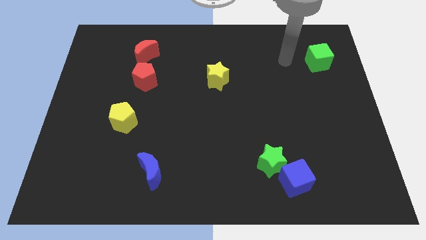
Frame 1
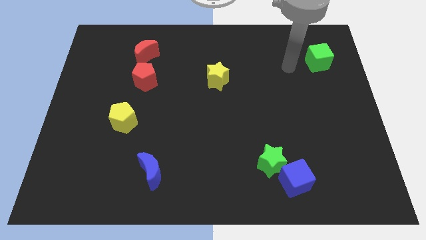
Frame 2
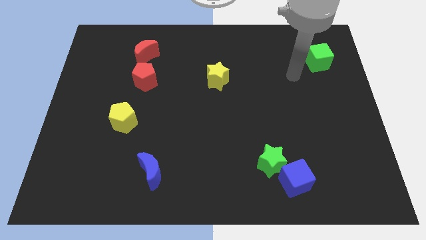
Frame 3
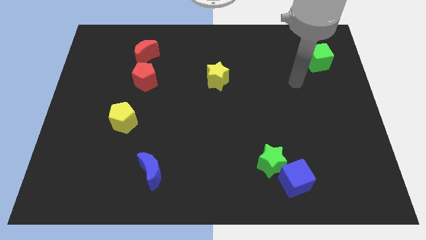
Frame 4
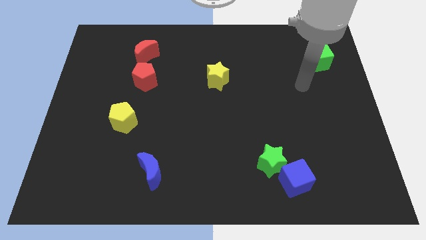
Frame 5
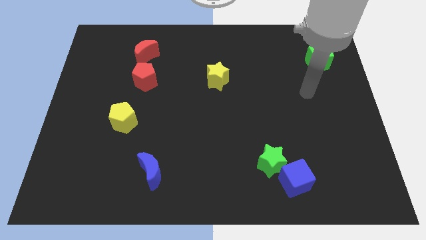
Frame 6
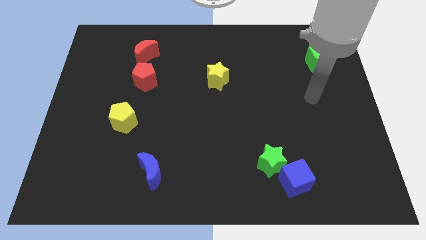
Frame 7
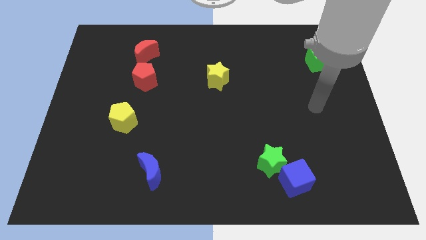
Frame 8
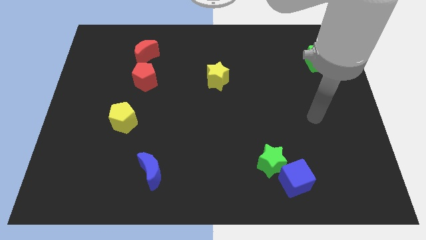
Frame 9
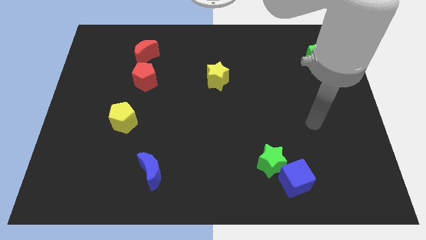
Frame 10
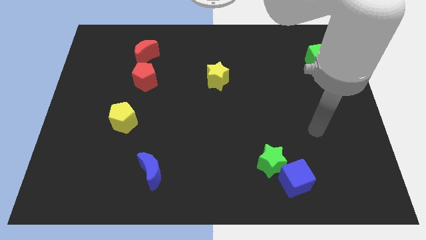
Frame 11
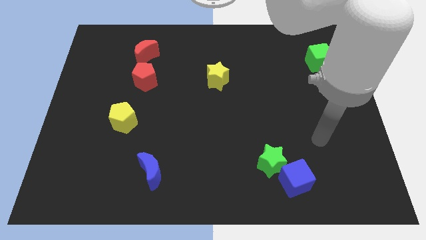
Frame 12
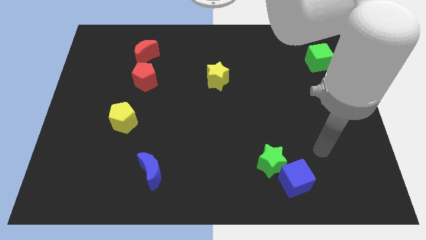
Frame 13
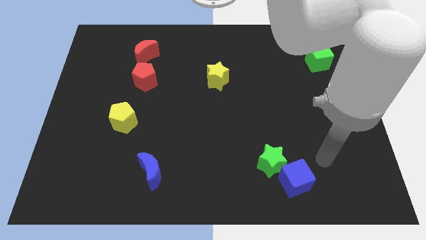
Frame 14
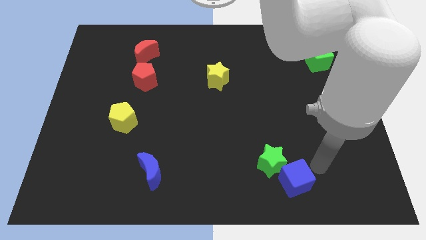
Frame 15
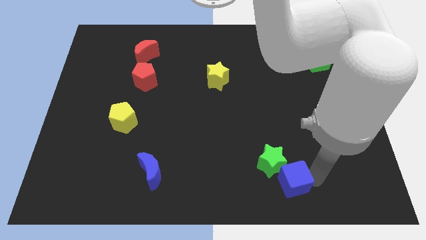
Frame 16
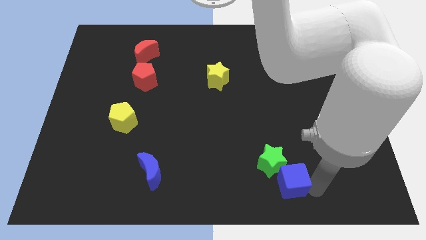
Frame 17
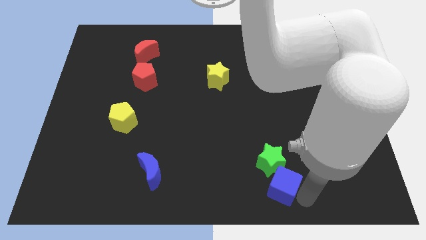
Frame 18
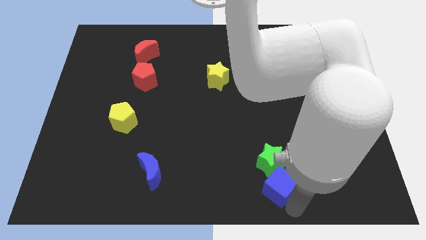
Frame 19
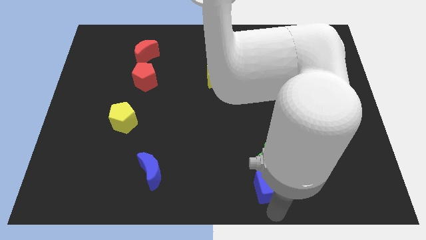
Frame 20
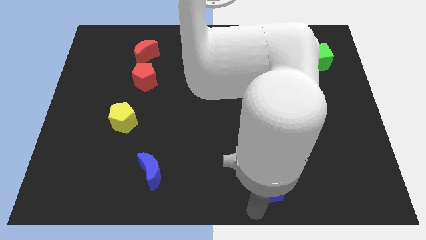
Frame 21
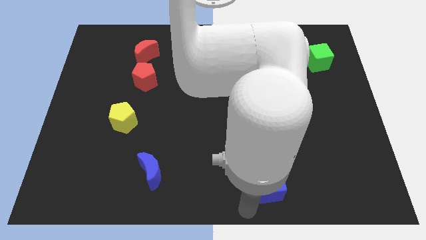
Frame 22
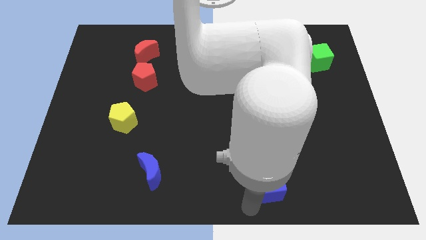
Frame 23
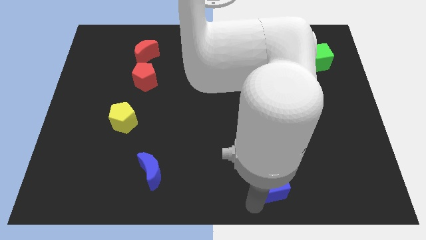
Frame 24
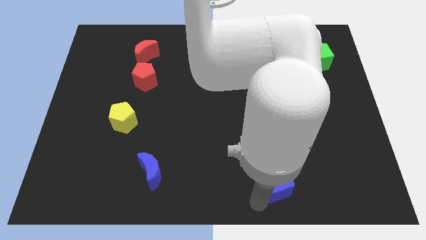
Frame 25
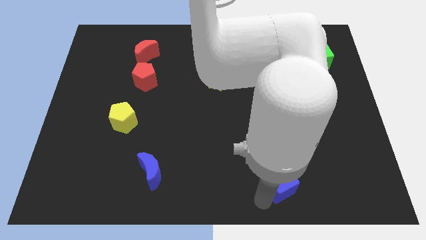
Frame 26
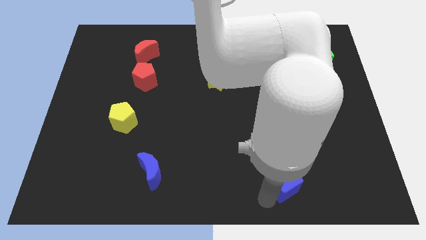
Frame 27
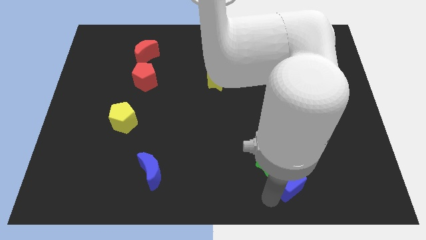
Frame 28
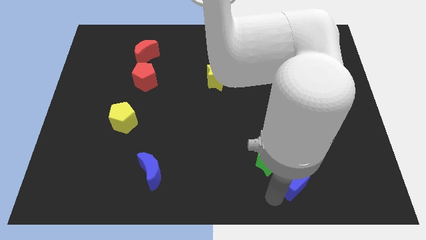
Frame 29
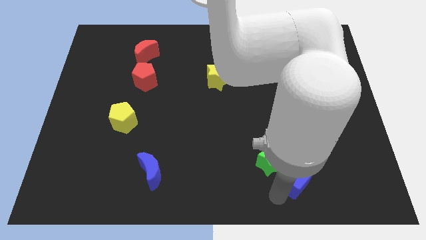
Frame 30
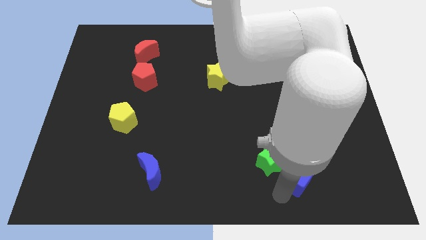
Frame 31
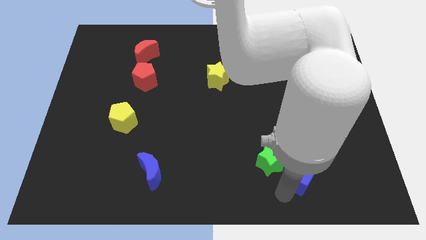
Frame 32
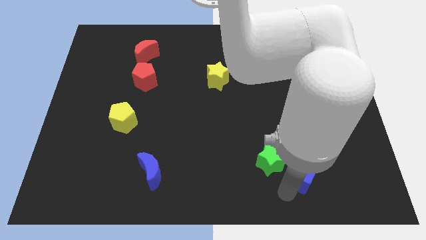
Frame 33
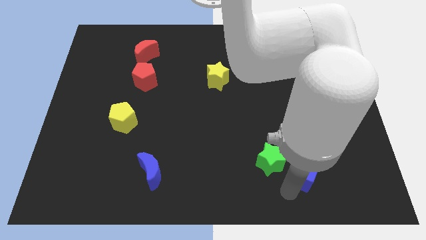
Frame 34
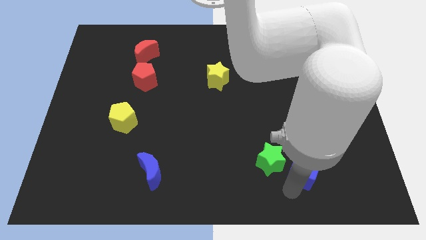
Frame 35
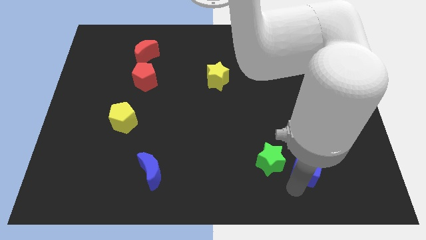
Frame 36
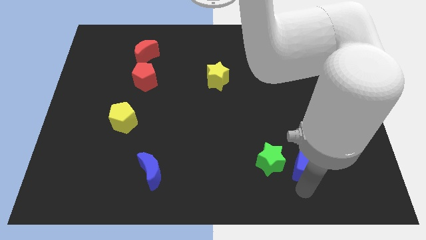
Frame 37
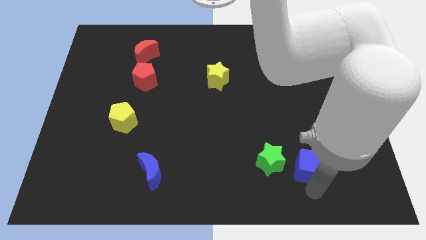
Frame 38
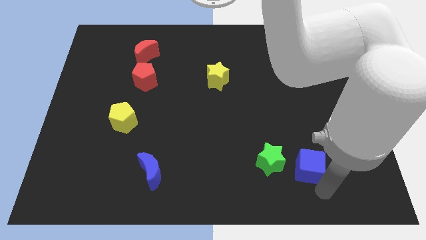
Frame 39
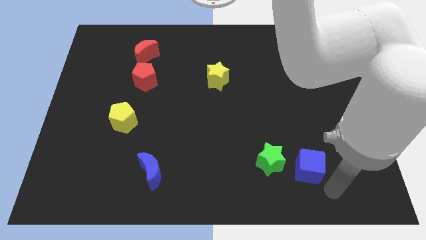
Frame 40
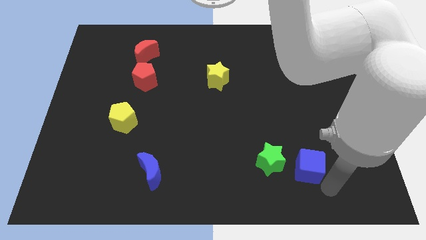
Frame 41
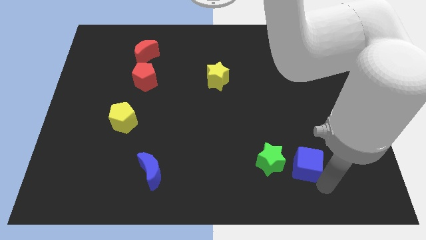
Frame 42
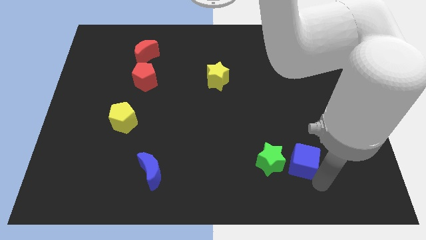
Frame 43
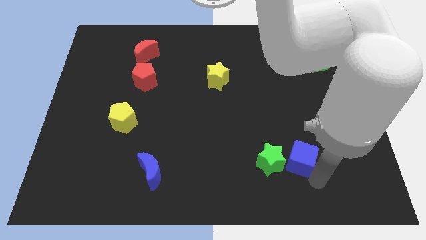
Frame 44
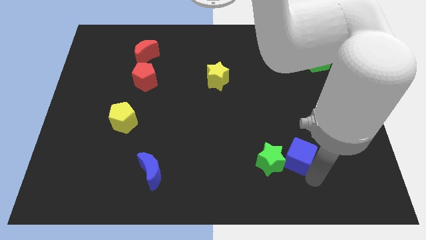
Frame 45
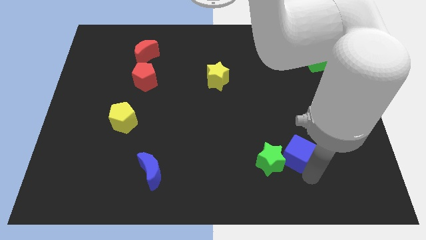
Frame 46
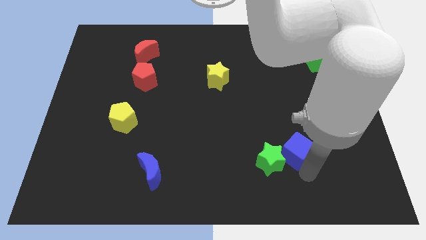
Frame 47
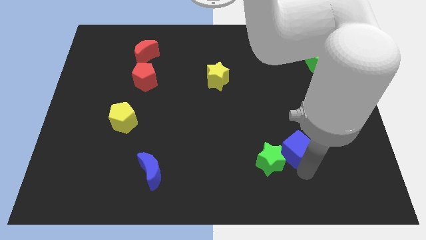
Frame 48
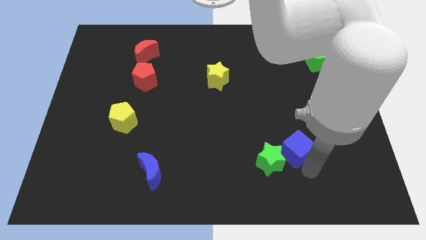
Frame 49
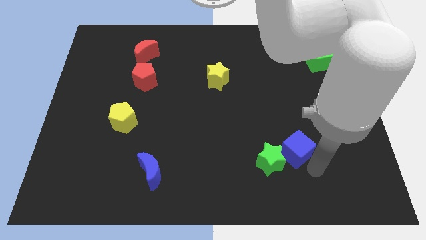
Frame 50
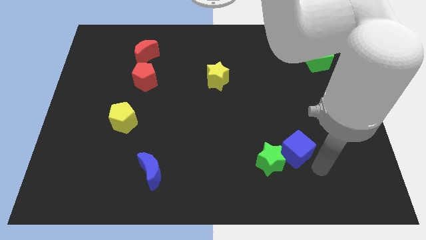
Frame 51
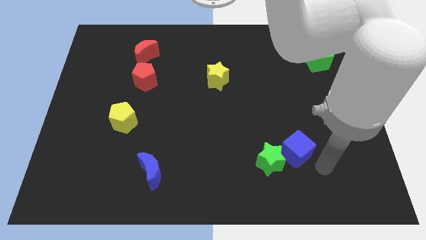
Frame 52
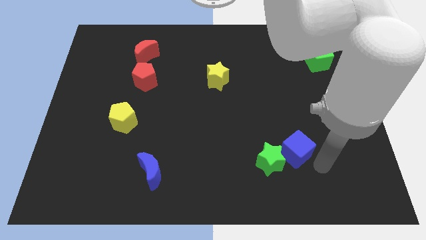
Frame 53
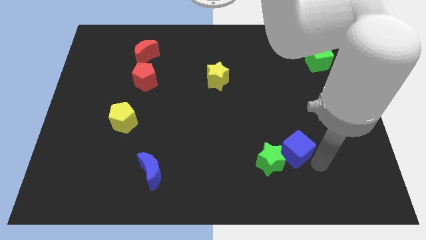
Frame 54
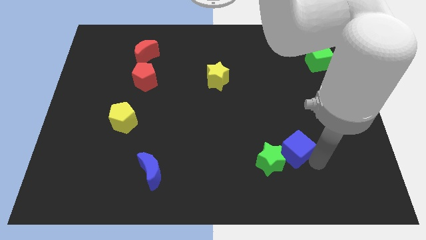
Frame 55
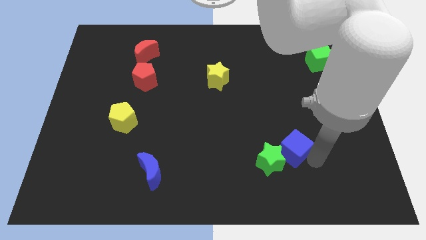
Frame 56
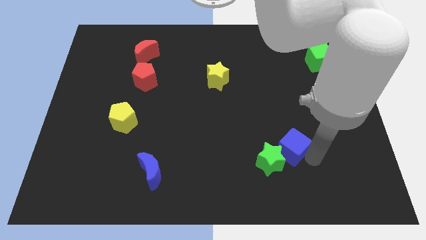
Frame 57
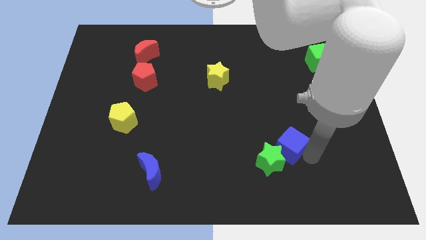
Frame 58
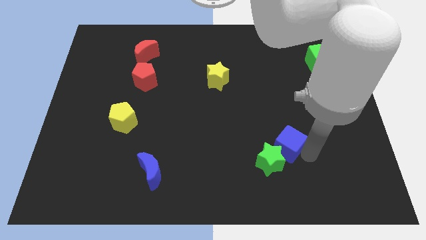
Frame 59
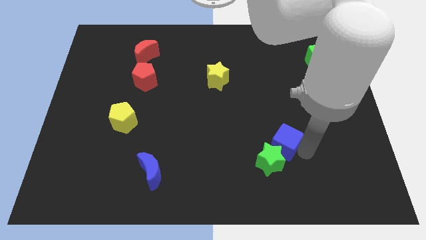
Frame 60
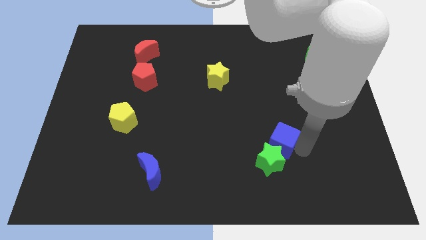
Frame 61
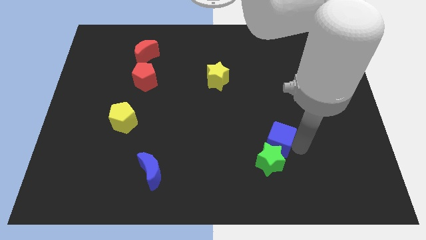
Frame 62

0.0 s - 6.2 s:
slightly push the blue cube up and left diagonally

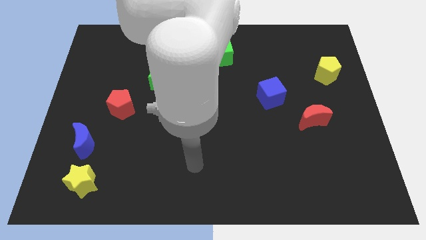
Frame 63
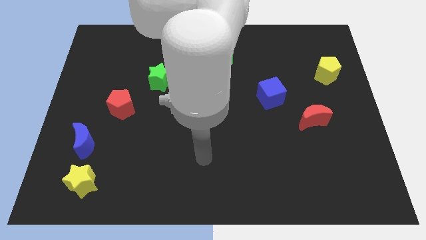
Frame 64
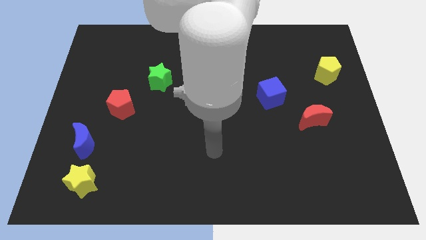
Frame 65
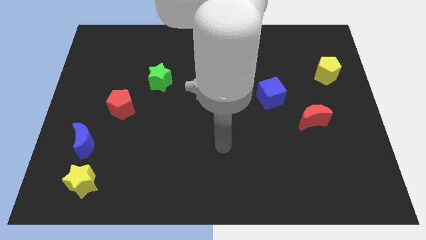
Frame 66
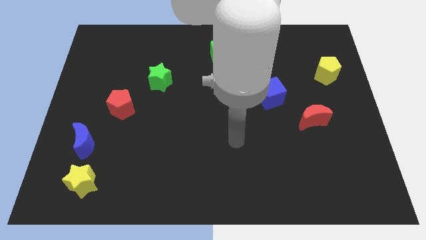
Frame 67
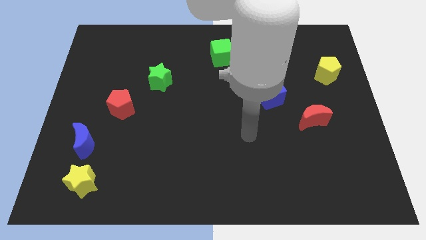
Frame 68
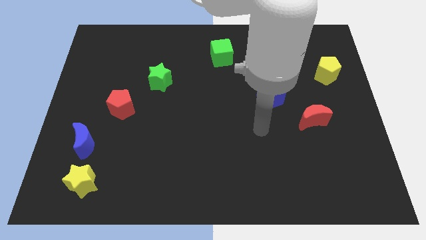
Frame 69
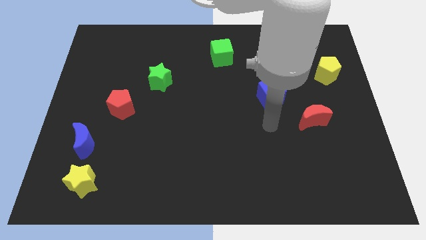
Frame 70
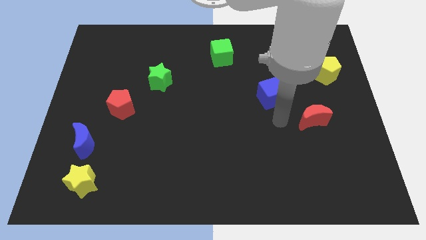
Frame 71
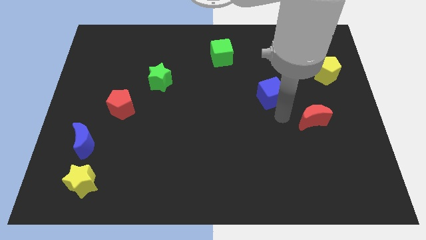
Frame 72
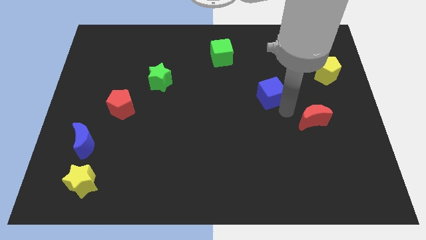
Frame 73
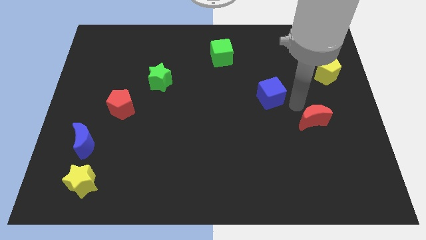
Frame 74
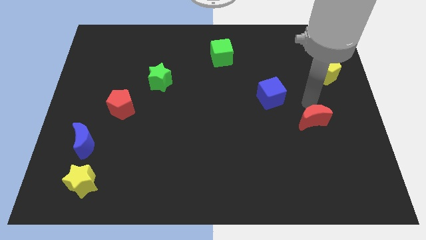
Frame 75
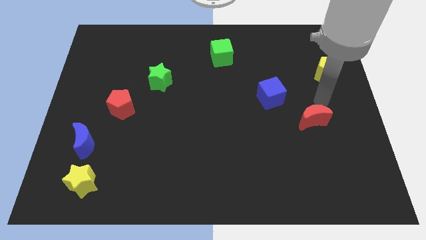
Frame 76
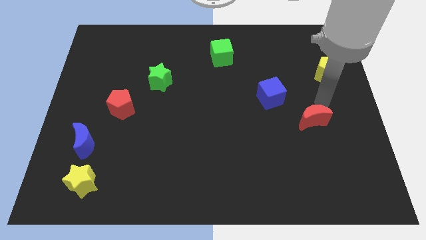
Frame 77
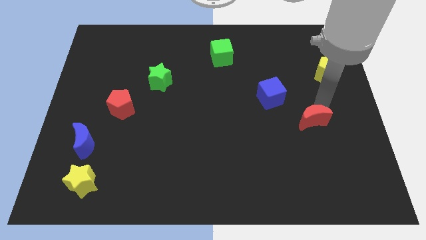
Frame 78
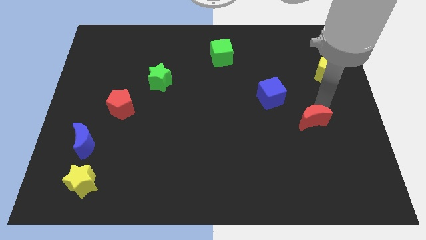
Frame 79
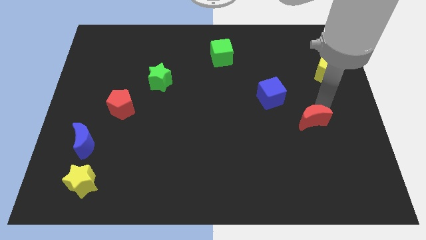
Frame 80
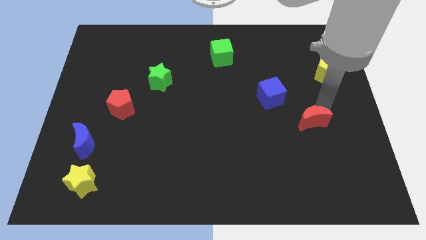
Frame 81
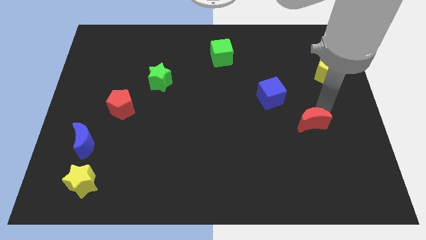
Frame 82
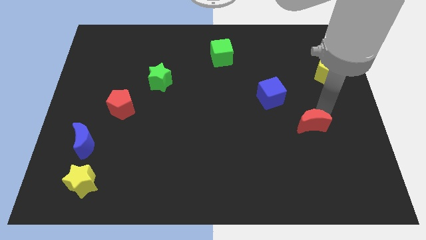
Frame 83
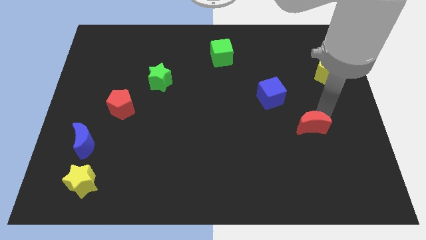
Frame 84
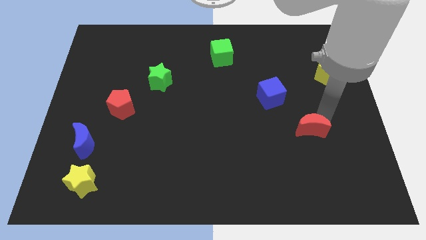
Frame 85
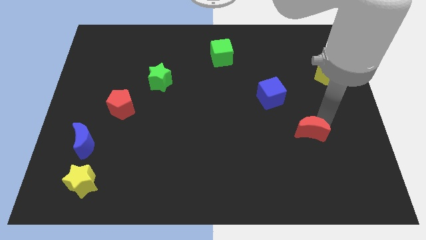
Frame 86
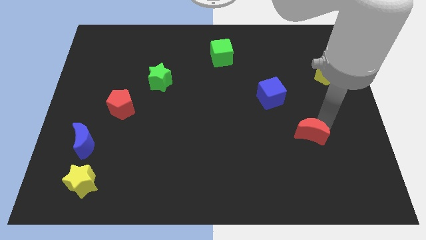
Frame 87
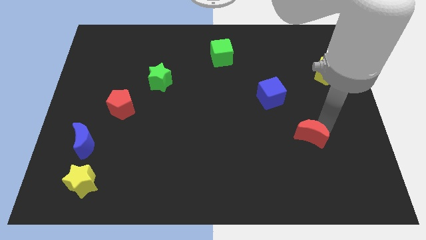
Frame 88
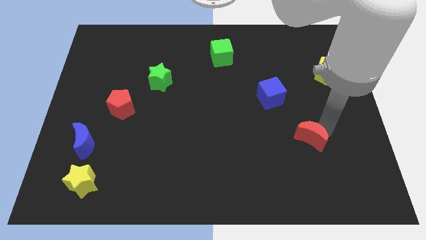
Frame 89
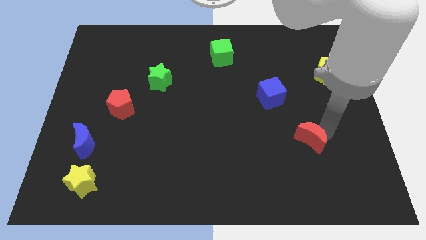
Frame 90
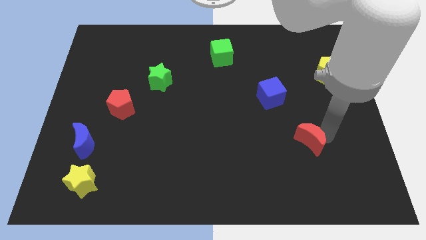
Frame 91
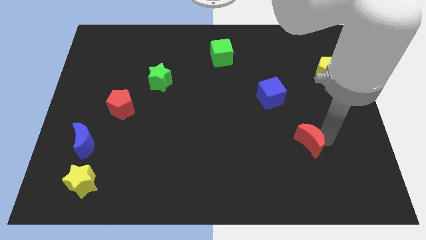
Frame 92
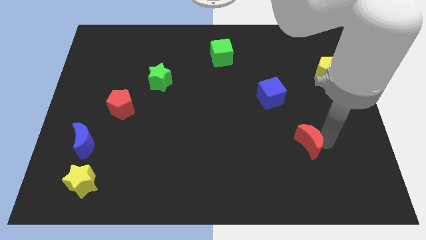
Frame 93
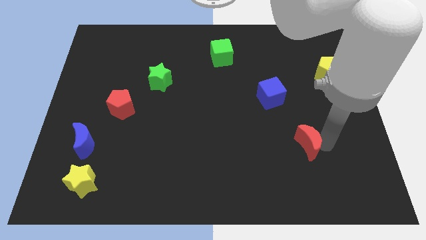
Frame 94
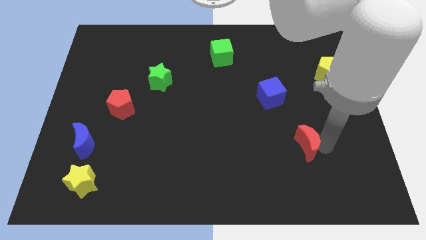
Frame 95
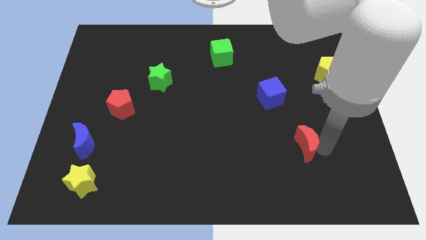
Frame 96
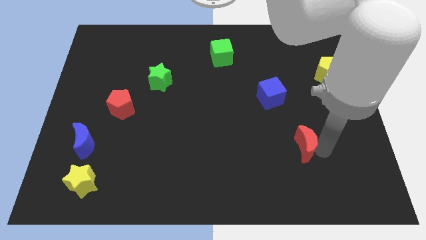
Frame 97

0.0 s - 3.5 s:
slightly move the red moon down and left diagonally
